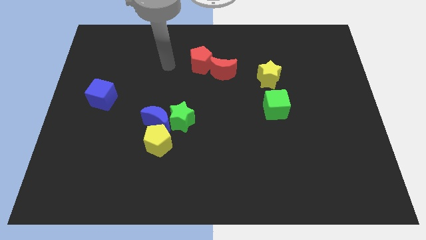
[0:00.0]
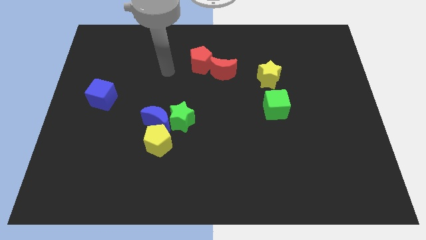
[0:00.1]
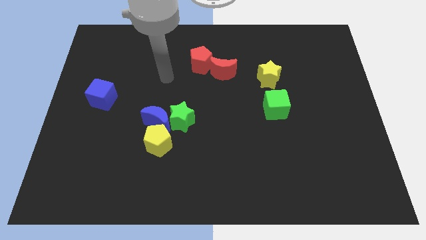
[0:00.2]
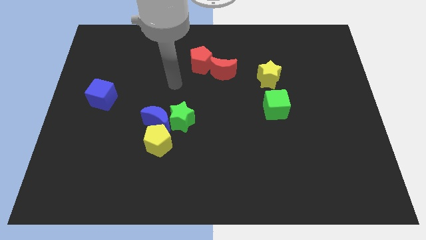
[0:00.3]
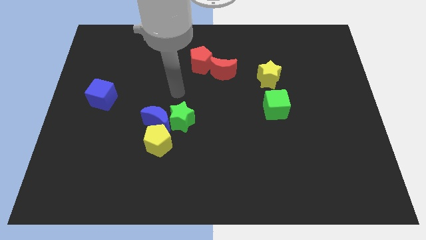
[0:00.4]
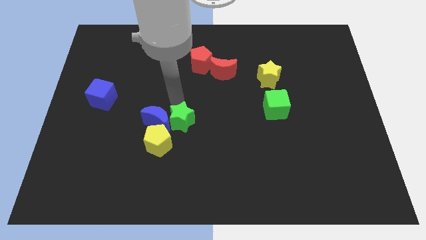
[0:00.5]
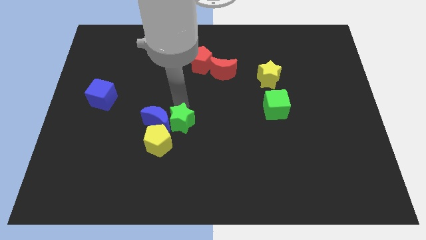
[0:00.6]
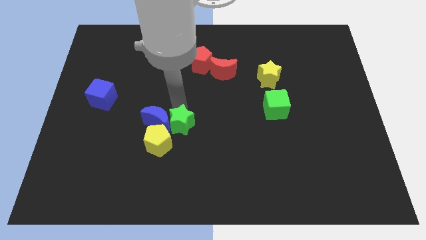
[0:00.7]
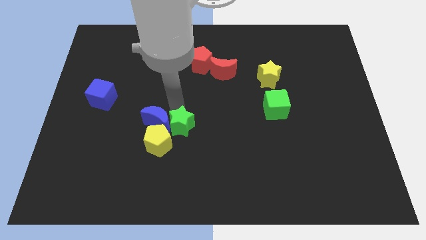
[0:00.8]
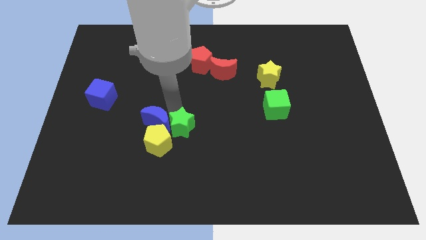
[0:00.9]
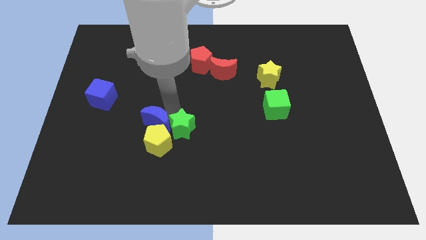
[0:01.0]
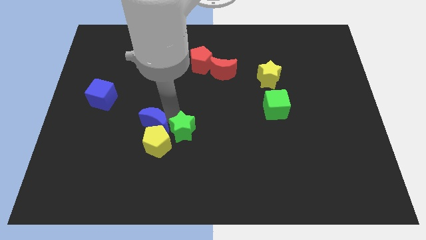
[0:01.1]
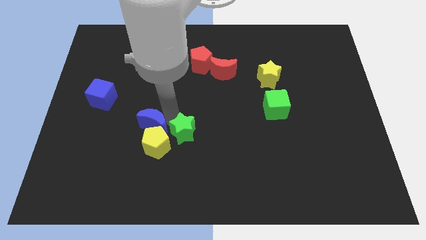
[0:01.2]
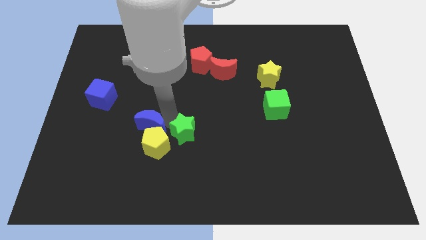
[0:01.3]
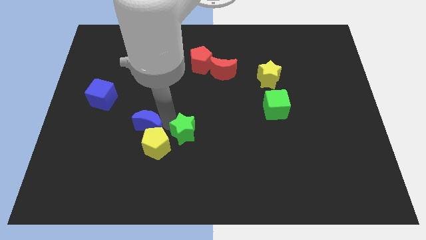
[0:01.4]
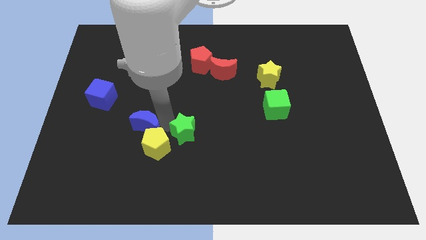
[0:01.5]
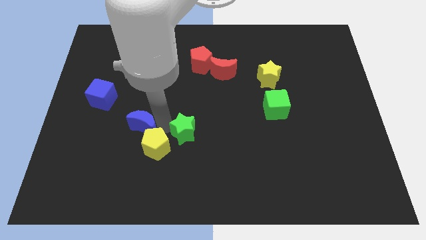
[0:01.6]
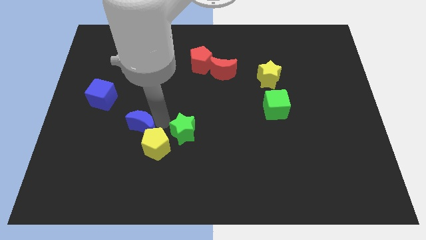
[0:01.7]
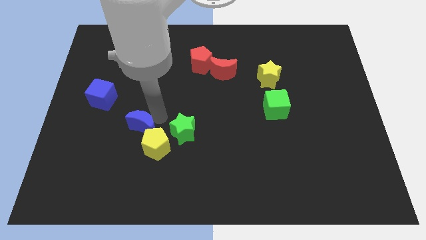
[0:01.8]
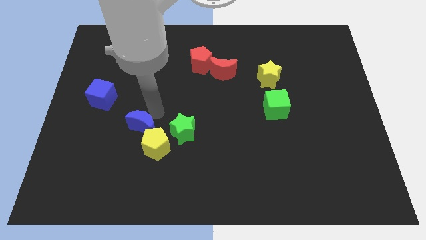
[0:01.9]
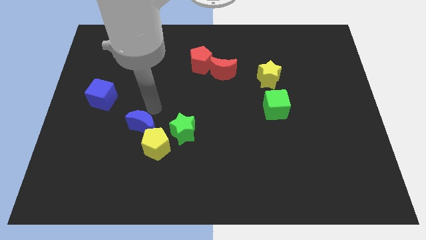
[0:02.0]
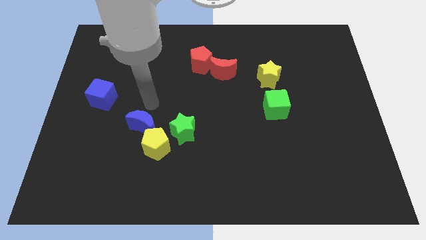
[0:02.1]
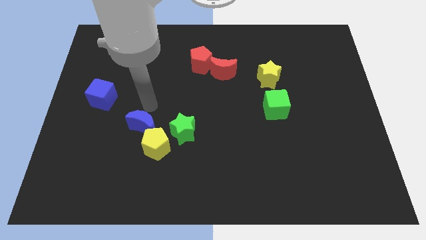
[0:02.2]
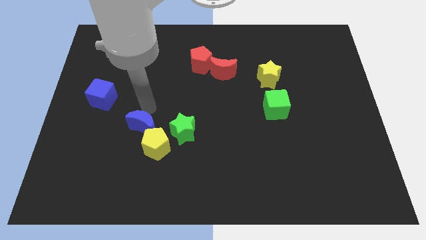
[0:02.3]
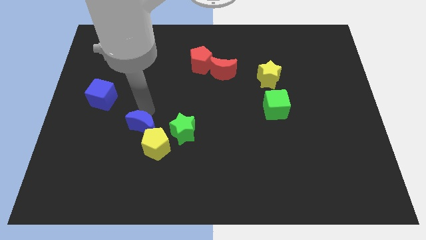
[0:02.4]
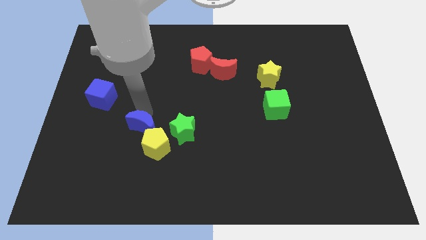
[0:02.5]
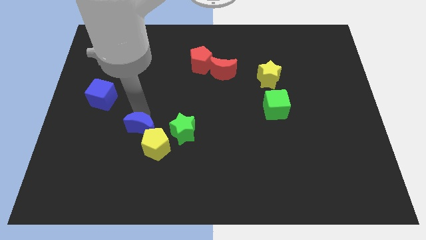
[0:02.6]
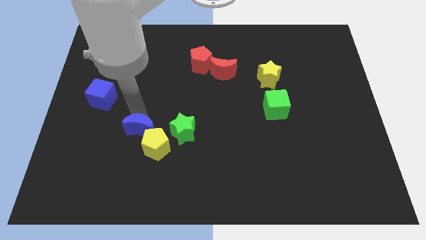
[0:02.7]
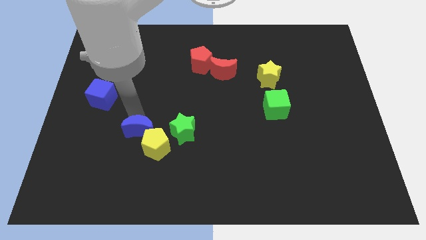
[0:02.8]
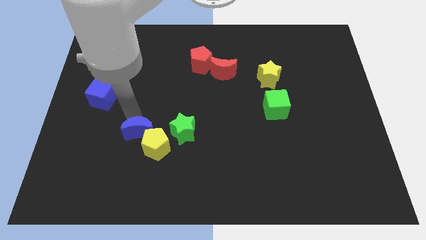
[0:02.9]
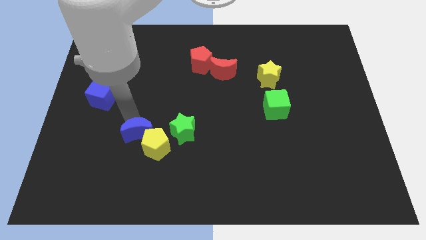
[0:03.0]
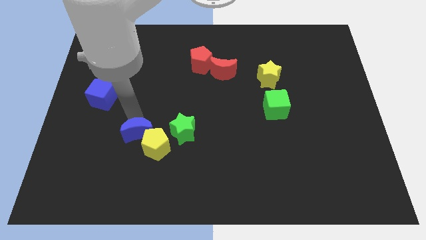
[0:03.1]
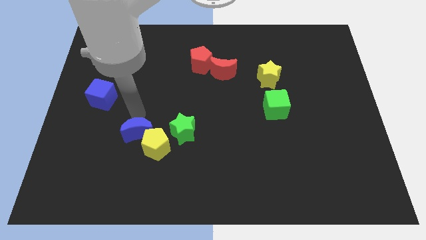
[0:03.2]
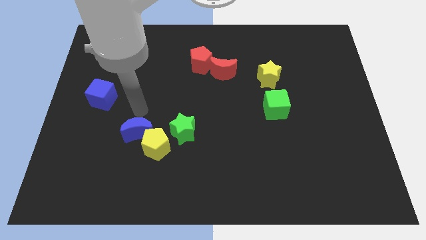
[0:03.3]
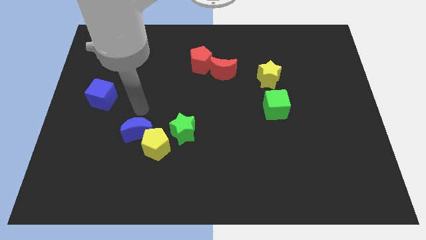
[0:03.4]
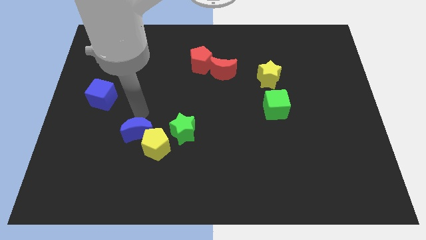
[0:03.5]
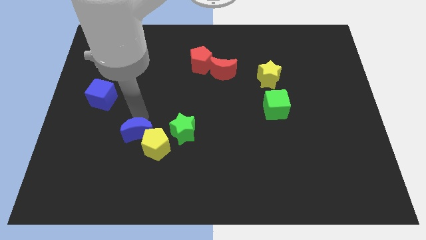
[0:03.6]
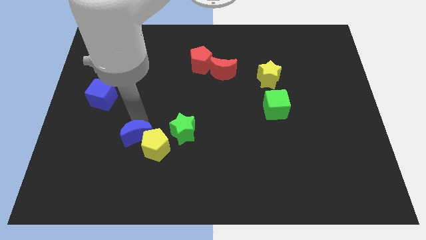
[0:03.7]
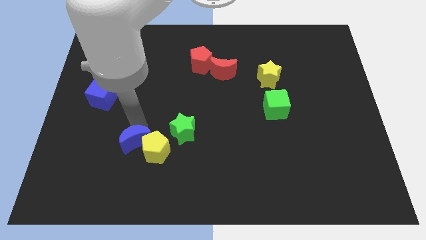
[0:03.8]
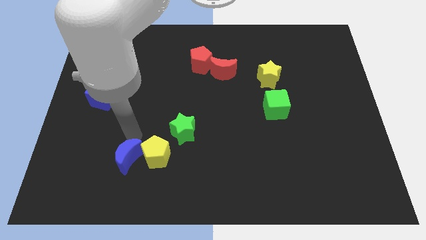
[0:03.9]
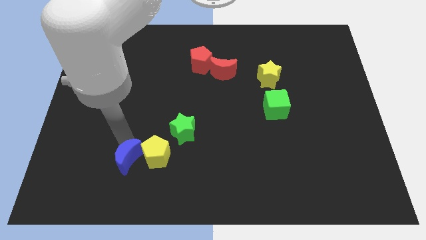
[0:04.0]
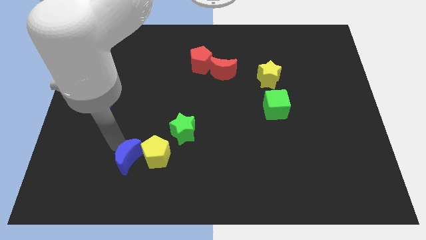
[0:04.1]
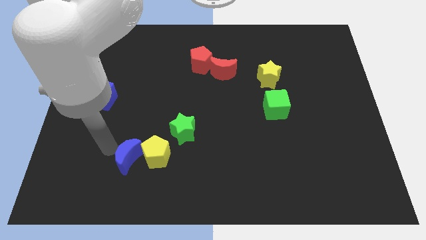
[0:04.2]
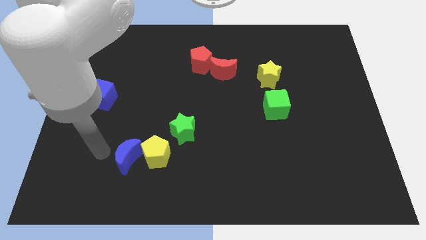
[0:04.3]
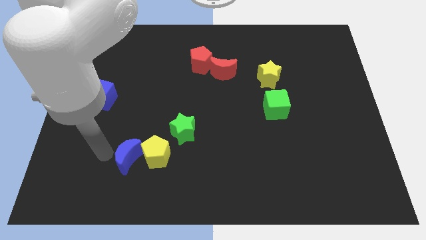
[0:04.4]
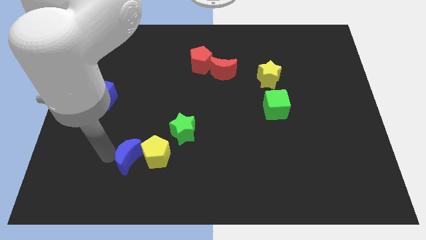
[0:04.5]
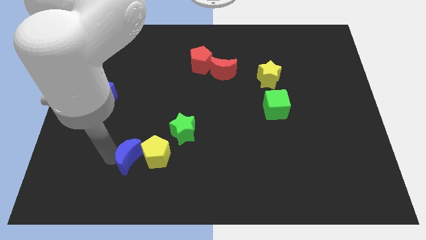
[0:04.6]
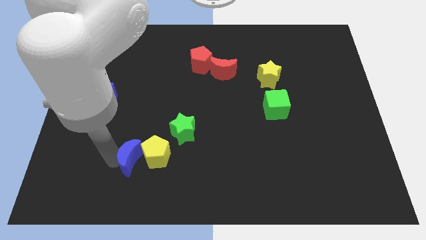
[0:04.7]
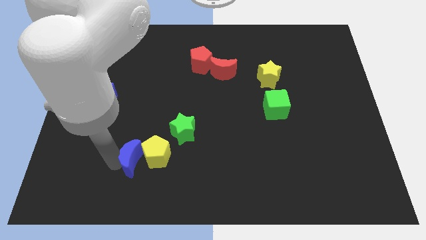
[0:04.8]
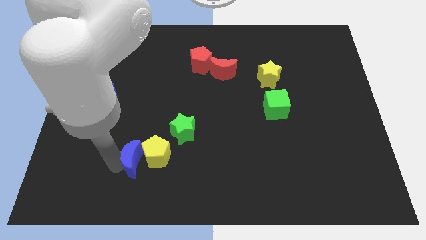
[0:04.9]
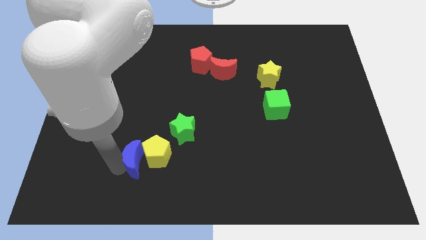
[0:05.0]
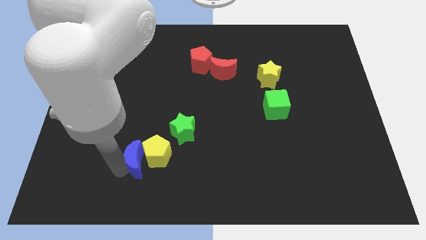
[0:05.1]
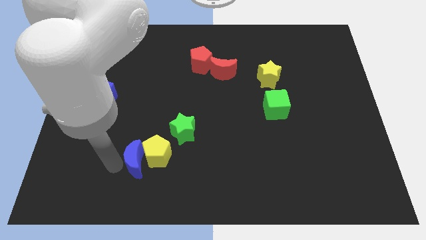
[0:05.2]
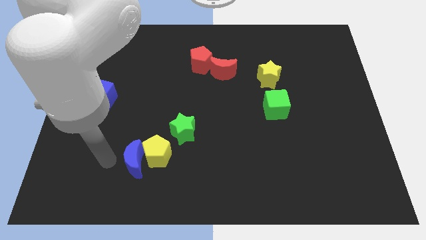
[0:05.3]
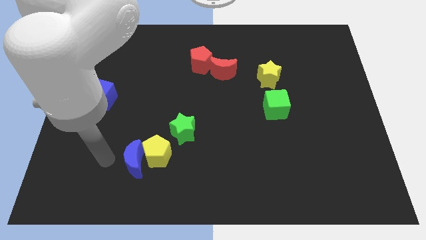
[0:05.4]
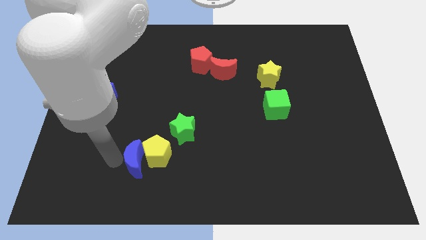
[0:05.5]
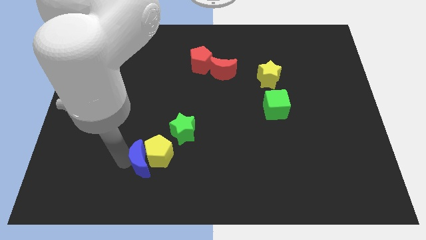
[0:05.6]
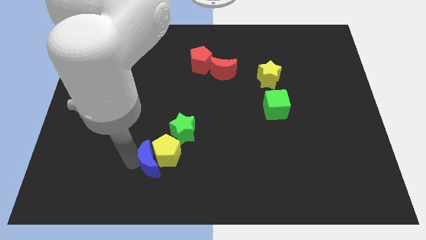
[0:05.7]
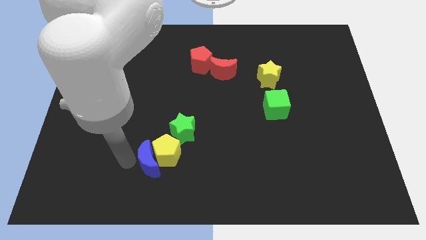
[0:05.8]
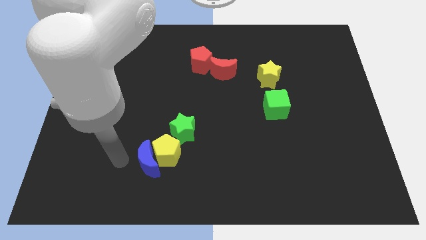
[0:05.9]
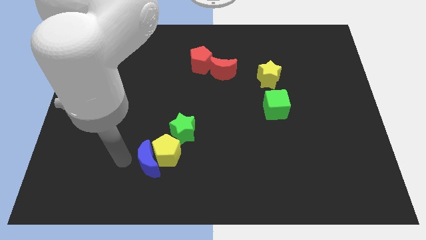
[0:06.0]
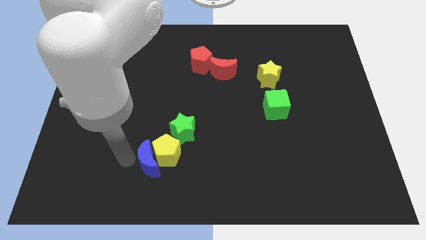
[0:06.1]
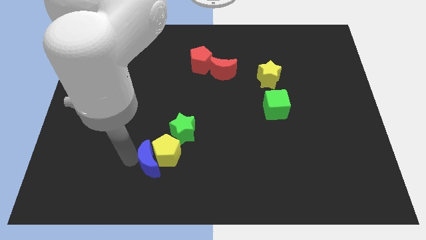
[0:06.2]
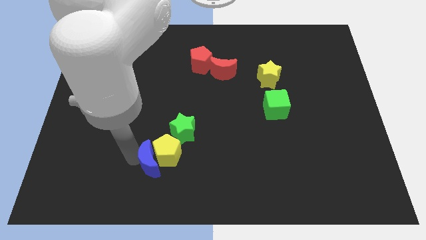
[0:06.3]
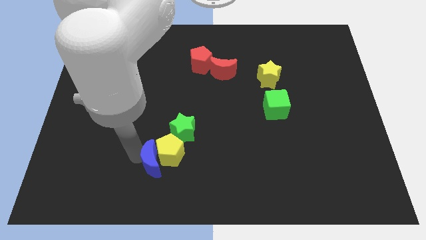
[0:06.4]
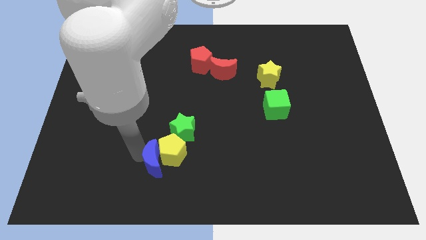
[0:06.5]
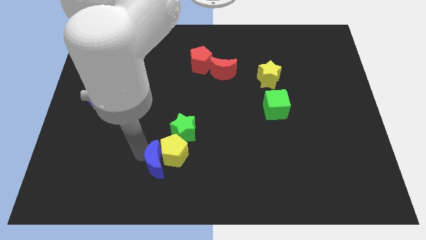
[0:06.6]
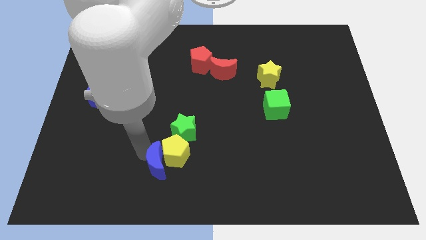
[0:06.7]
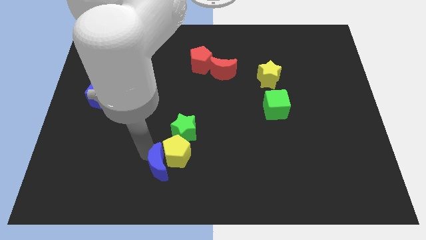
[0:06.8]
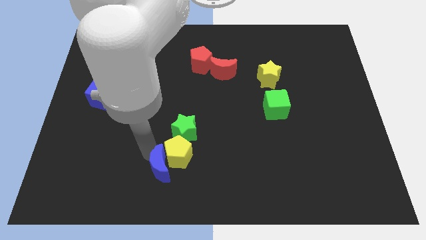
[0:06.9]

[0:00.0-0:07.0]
push the blue moon a little bit downwards and to the right

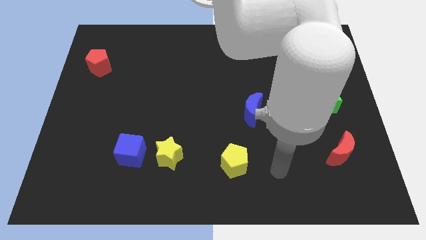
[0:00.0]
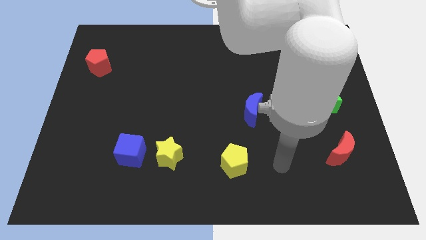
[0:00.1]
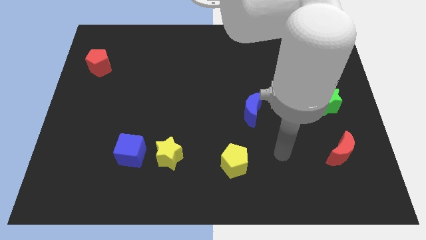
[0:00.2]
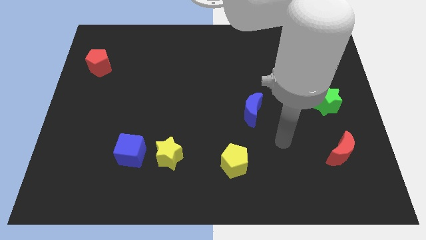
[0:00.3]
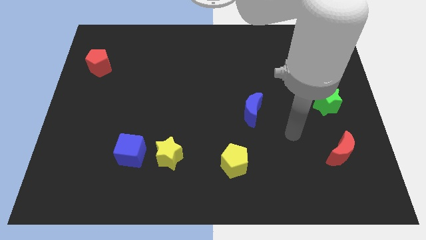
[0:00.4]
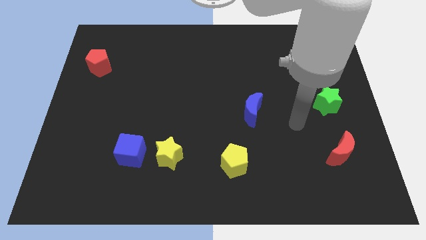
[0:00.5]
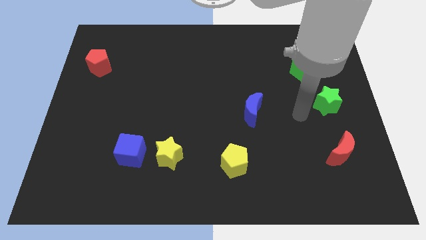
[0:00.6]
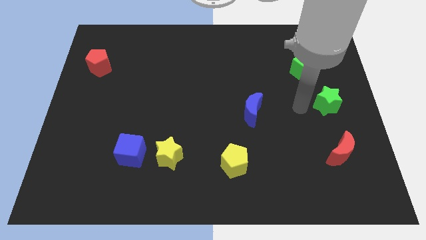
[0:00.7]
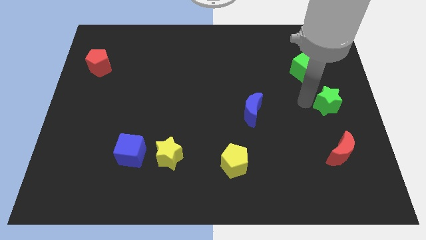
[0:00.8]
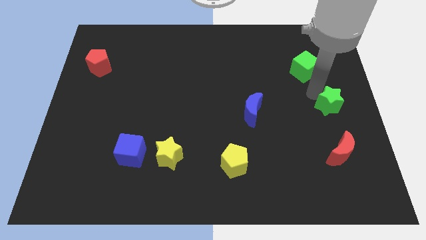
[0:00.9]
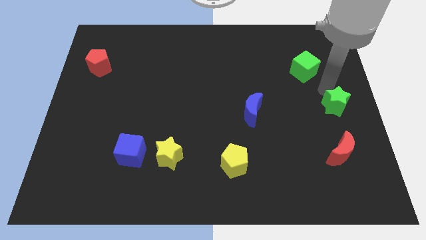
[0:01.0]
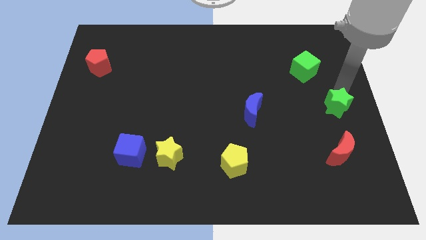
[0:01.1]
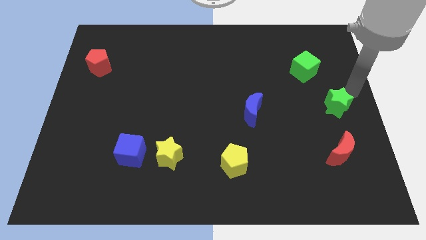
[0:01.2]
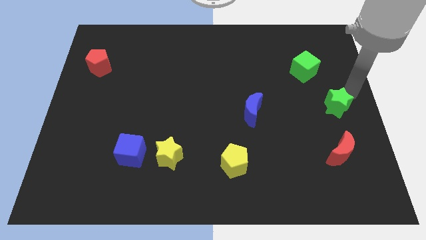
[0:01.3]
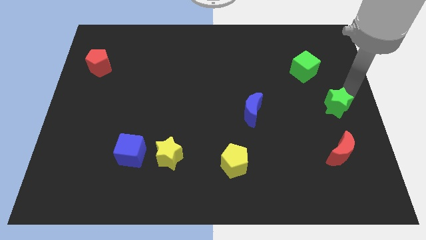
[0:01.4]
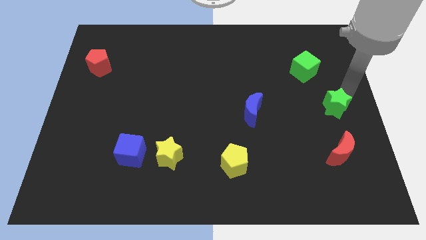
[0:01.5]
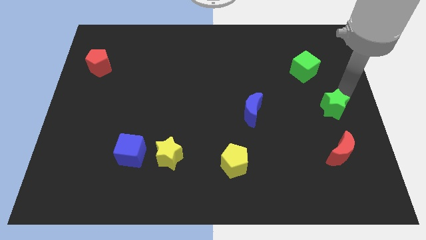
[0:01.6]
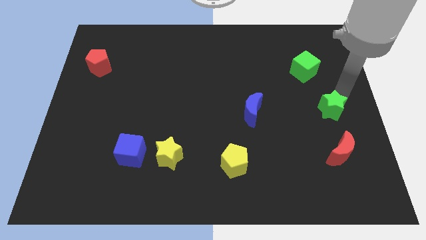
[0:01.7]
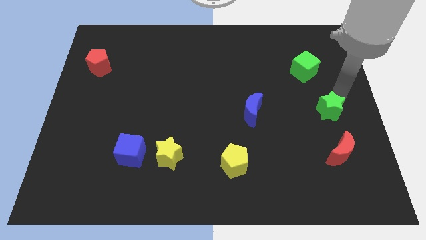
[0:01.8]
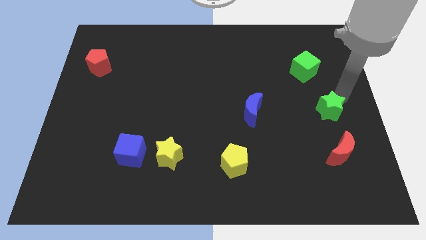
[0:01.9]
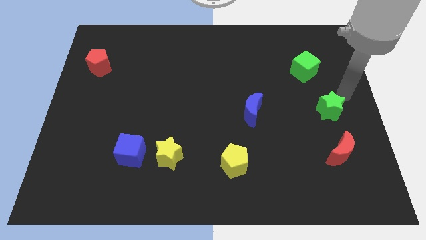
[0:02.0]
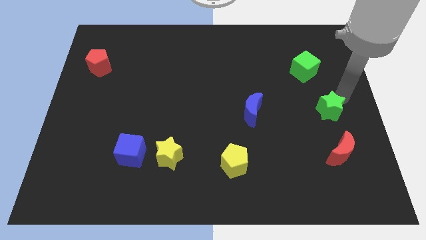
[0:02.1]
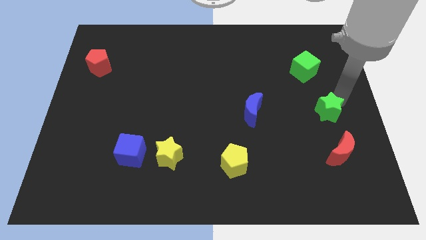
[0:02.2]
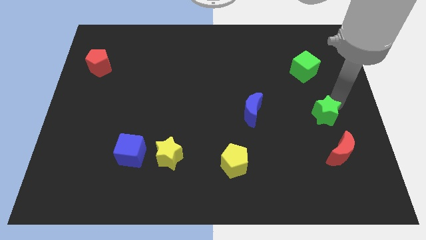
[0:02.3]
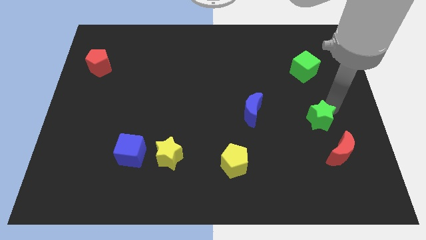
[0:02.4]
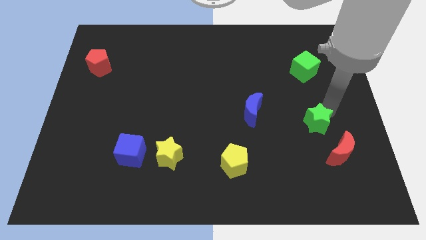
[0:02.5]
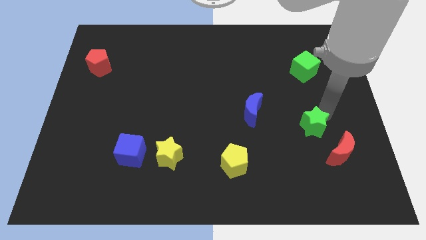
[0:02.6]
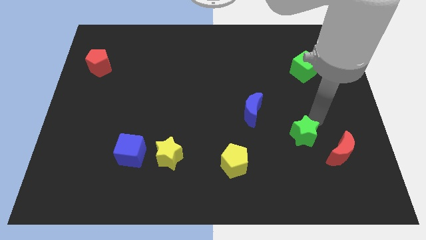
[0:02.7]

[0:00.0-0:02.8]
move the green star downwards somewhat
